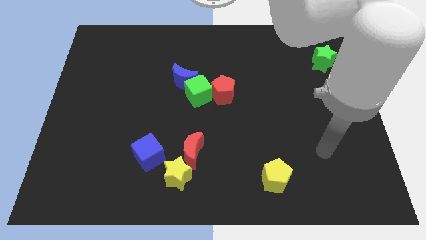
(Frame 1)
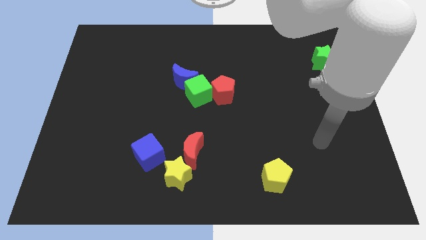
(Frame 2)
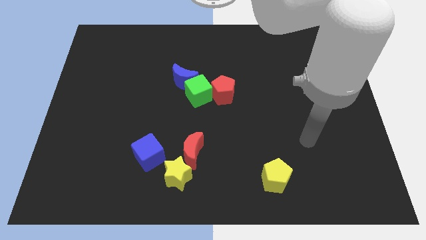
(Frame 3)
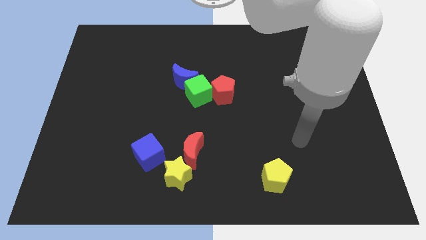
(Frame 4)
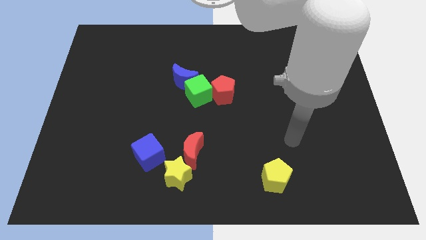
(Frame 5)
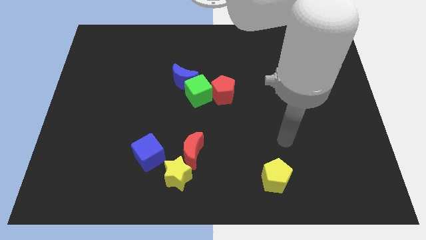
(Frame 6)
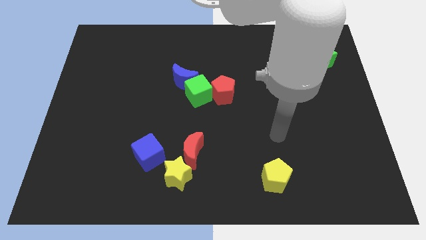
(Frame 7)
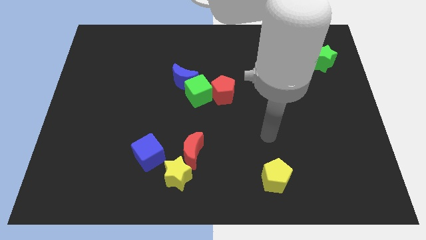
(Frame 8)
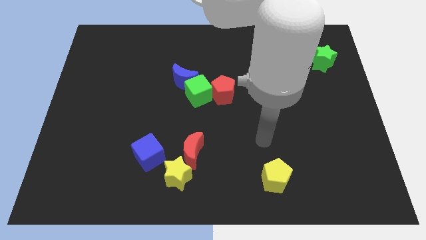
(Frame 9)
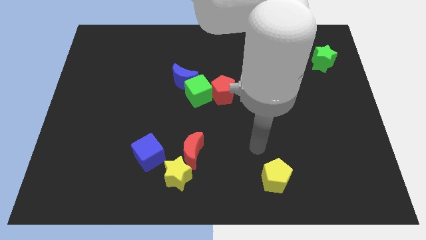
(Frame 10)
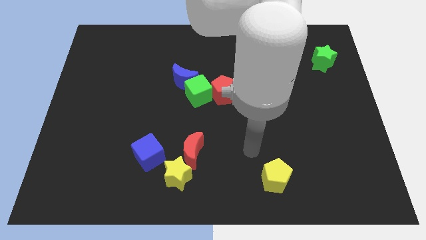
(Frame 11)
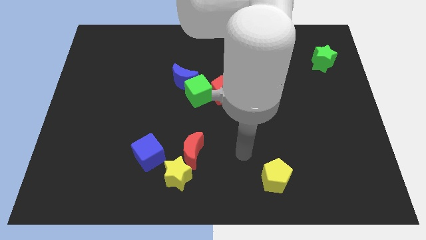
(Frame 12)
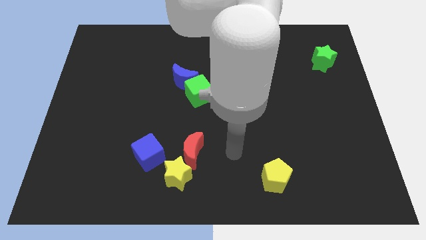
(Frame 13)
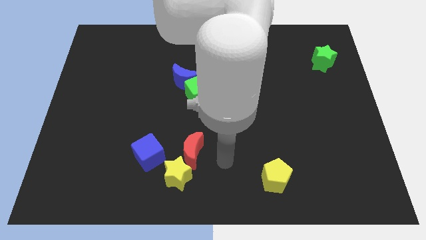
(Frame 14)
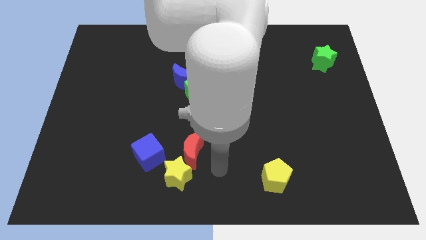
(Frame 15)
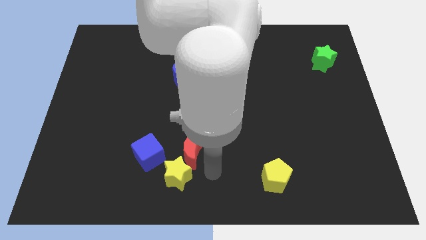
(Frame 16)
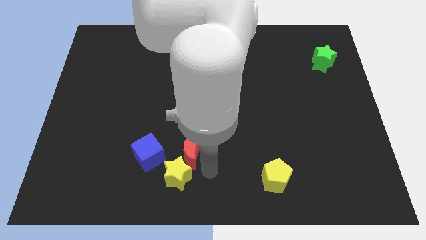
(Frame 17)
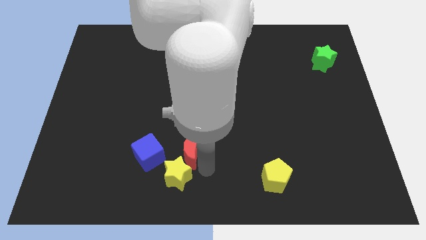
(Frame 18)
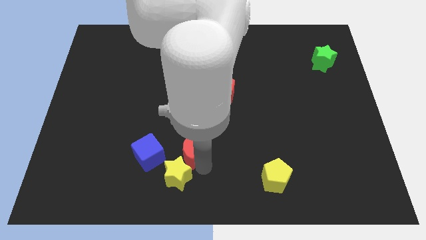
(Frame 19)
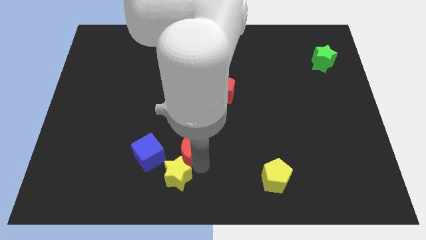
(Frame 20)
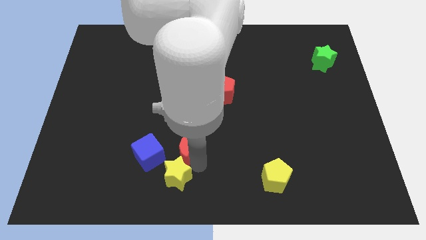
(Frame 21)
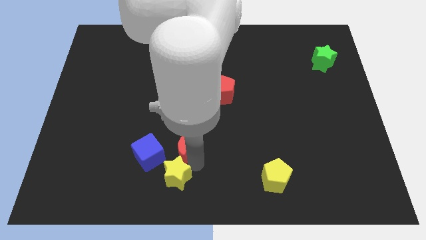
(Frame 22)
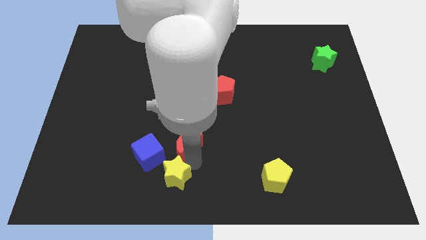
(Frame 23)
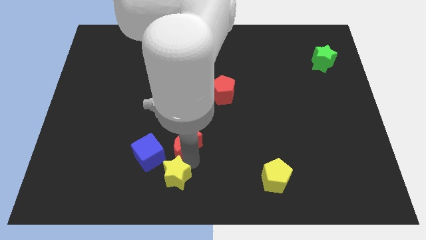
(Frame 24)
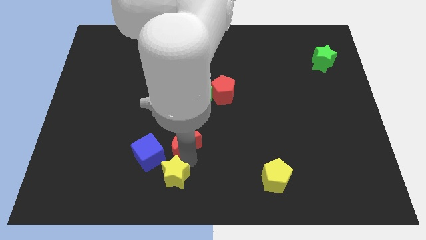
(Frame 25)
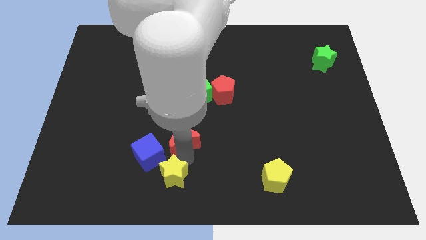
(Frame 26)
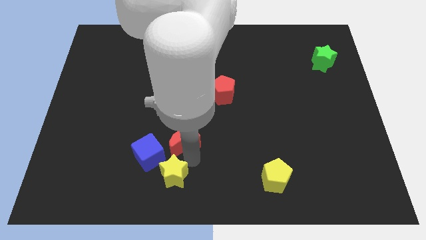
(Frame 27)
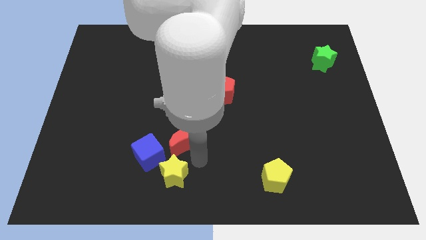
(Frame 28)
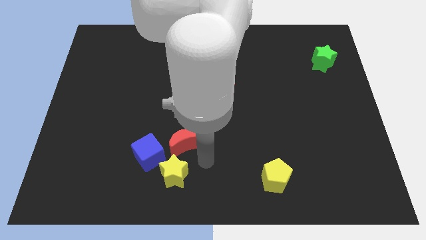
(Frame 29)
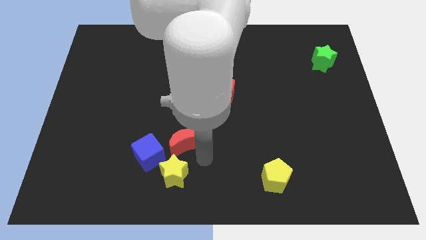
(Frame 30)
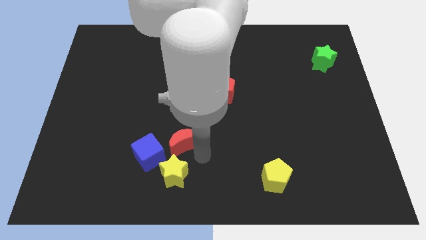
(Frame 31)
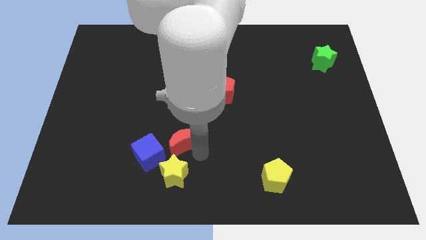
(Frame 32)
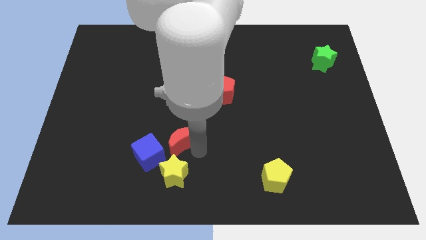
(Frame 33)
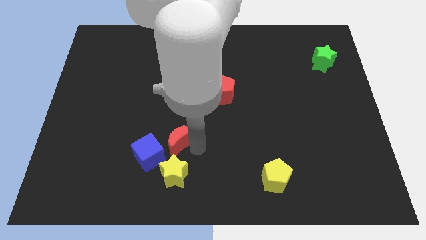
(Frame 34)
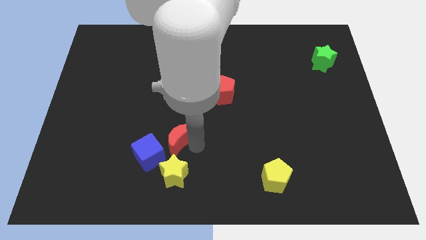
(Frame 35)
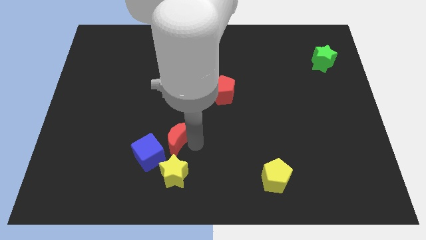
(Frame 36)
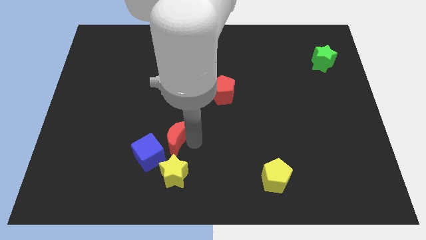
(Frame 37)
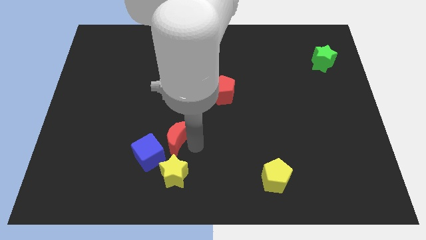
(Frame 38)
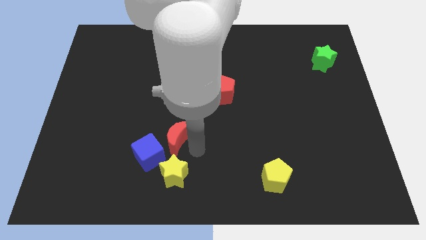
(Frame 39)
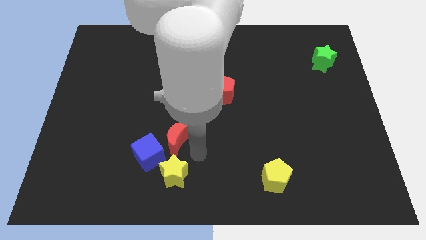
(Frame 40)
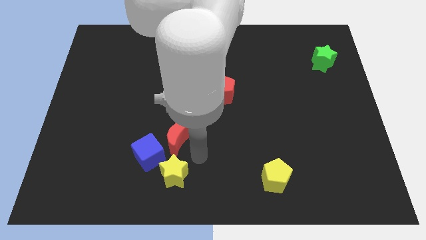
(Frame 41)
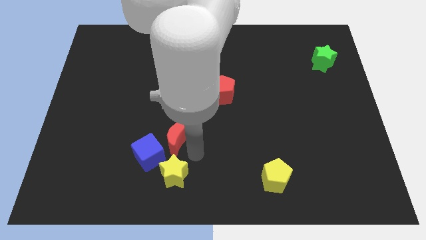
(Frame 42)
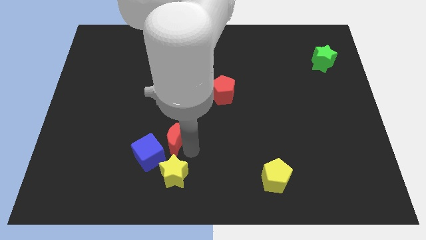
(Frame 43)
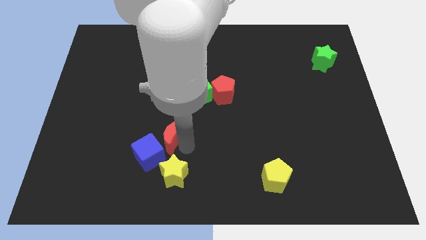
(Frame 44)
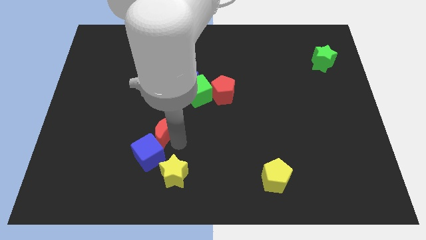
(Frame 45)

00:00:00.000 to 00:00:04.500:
slightly move the red moon up and to the left diagonally

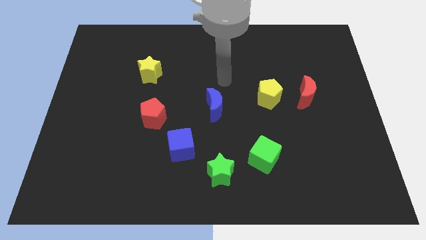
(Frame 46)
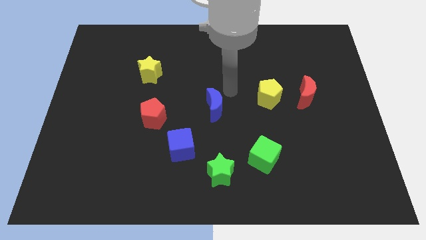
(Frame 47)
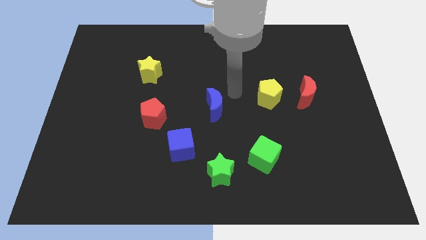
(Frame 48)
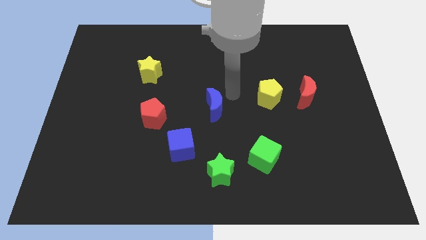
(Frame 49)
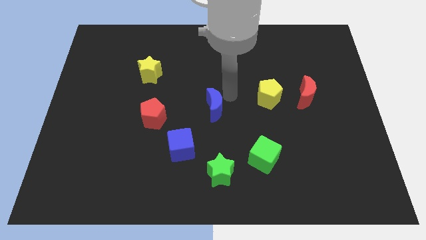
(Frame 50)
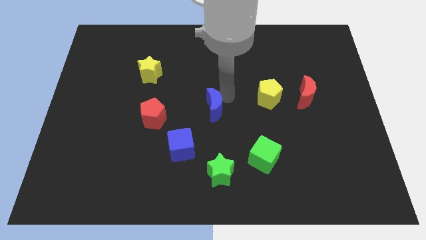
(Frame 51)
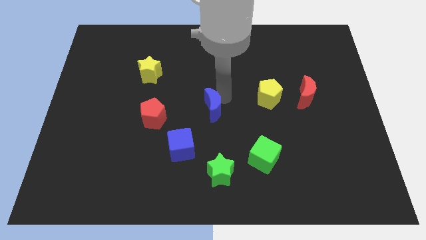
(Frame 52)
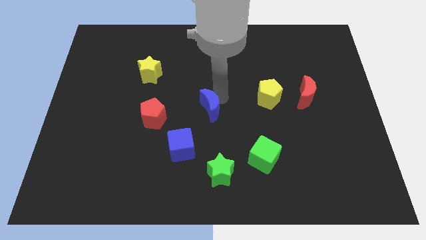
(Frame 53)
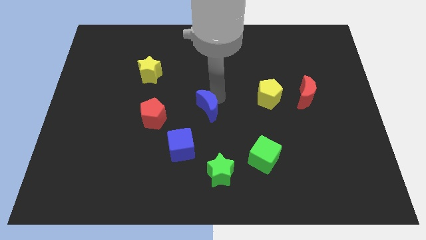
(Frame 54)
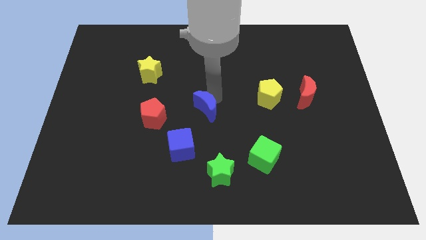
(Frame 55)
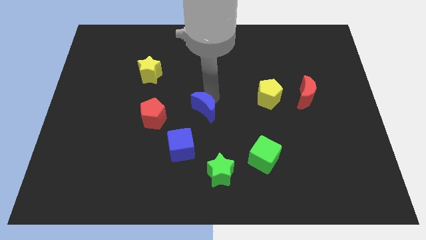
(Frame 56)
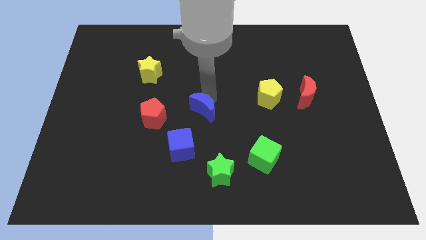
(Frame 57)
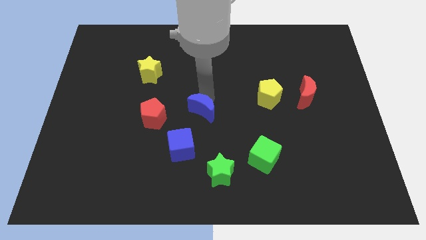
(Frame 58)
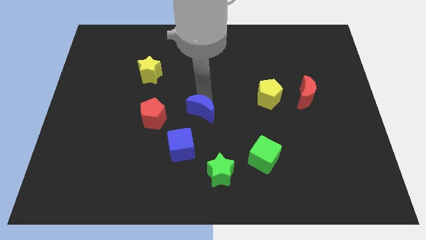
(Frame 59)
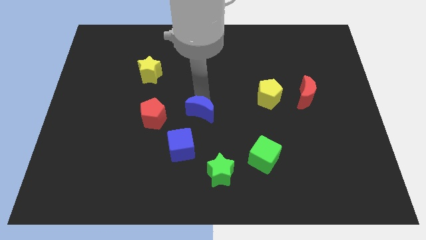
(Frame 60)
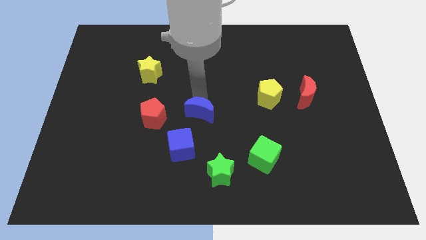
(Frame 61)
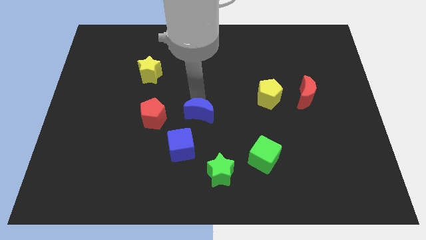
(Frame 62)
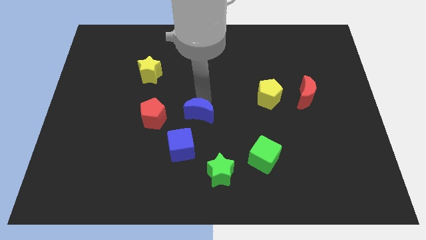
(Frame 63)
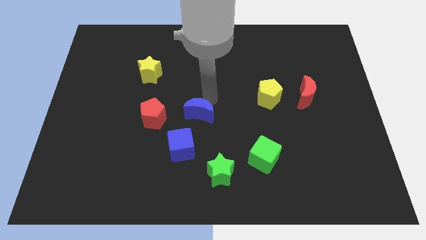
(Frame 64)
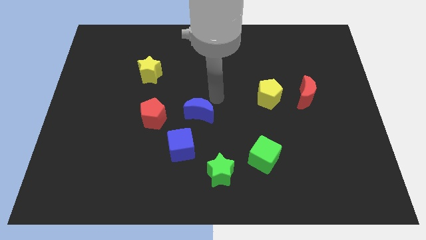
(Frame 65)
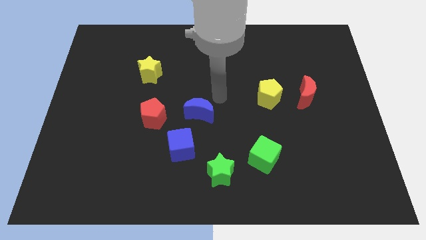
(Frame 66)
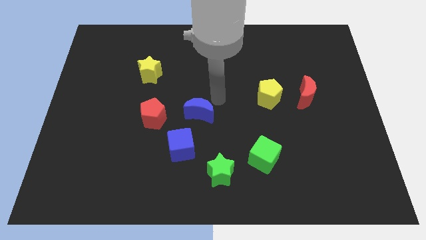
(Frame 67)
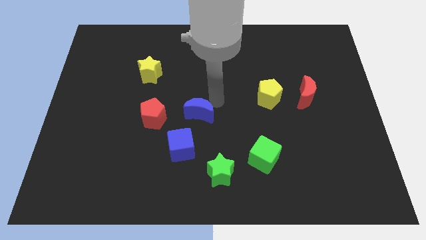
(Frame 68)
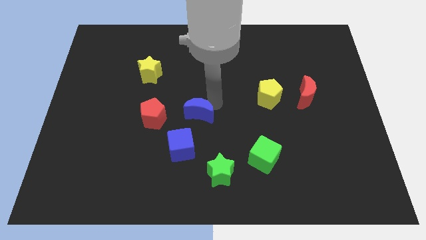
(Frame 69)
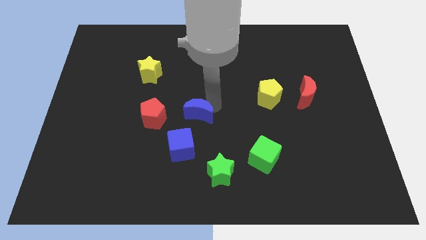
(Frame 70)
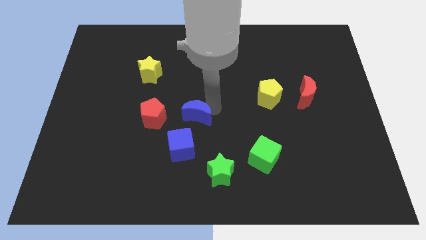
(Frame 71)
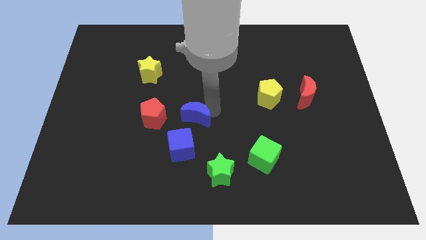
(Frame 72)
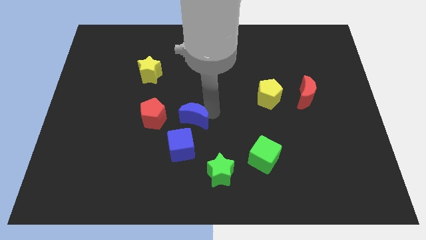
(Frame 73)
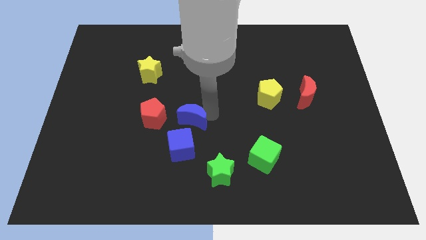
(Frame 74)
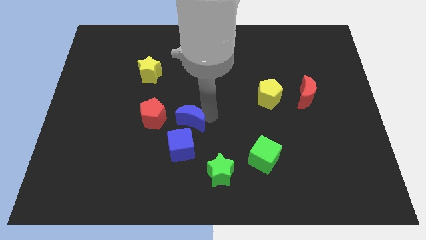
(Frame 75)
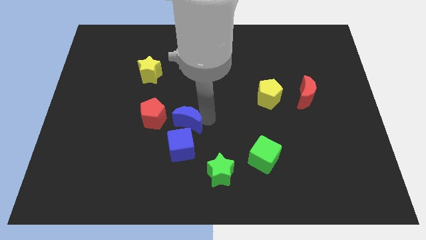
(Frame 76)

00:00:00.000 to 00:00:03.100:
slightly slide the blue moon down and left diagonally

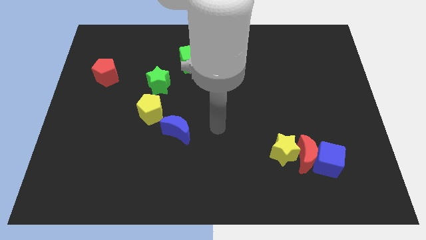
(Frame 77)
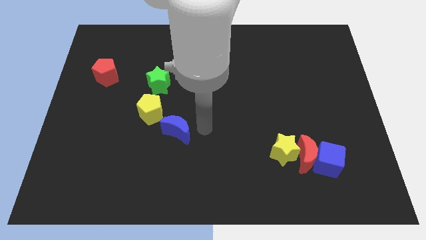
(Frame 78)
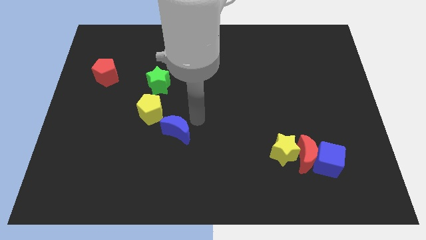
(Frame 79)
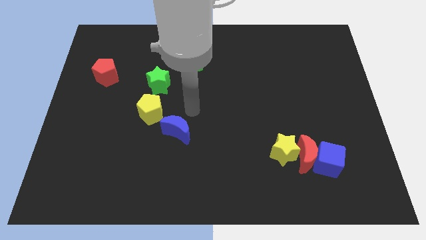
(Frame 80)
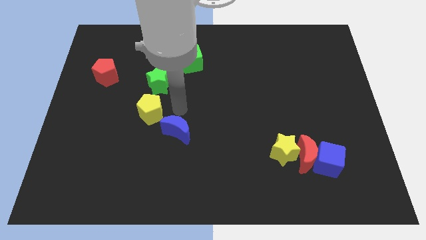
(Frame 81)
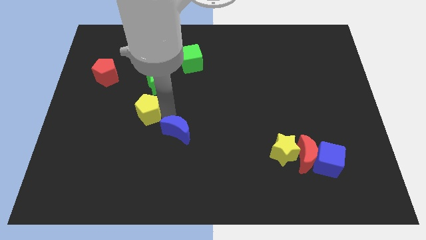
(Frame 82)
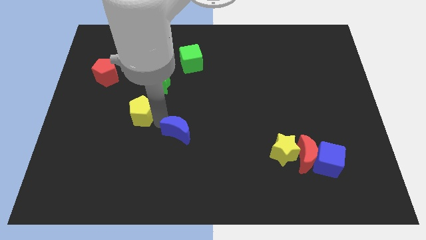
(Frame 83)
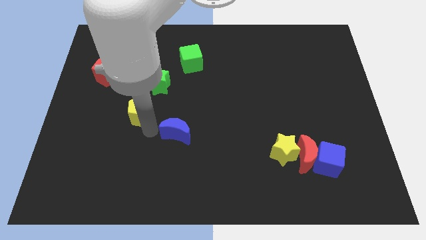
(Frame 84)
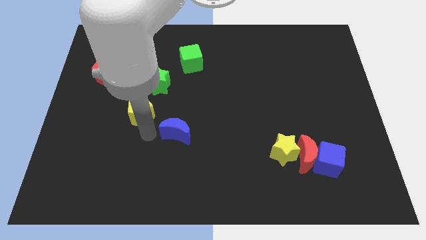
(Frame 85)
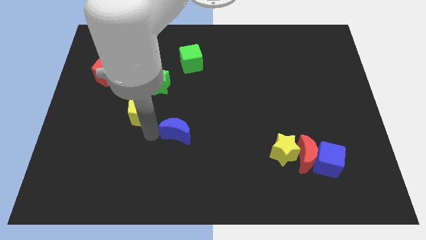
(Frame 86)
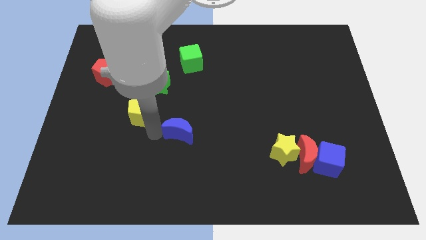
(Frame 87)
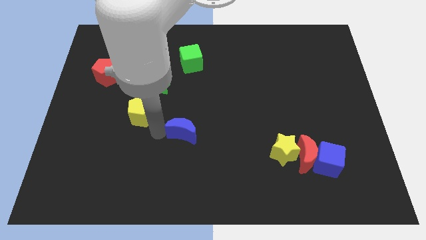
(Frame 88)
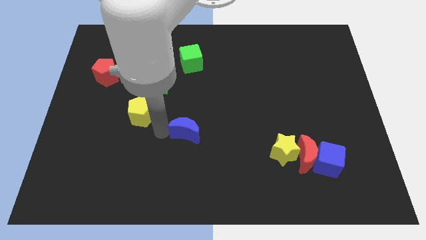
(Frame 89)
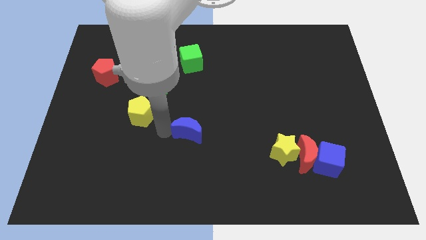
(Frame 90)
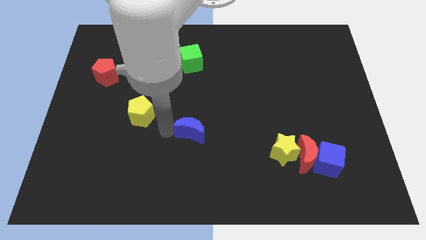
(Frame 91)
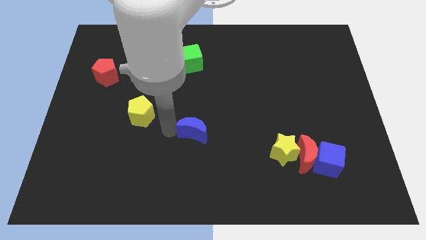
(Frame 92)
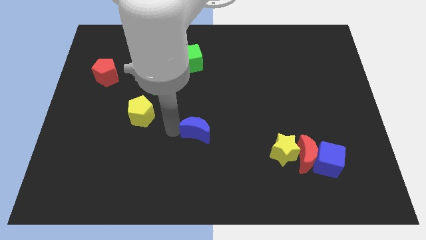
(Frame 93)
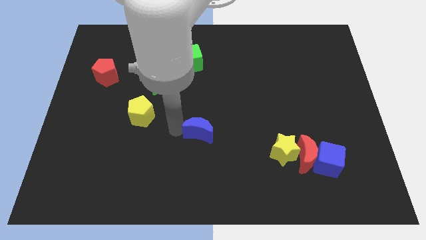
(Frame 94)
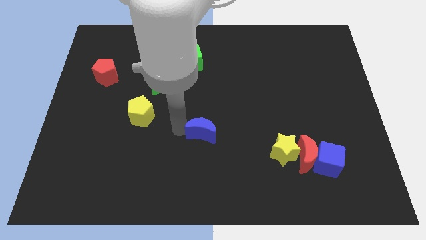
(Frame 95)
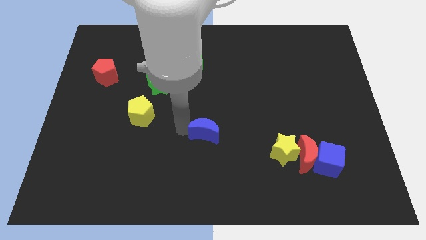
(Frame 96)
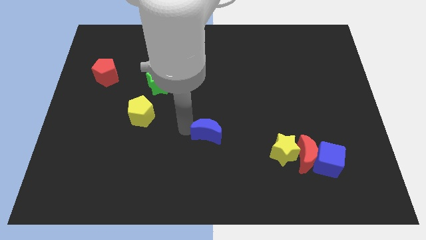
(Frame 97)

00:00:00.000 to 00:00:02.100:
move the blue moon a little bit to the right
